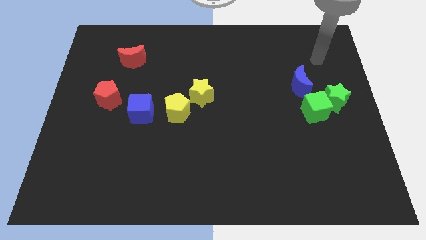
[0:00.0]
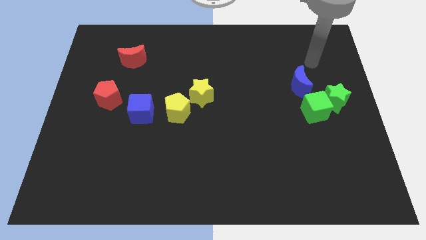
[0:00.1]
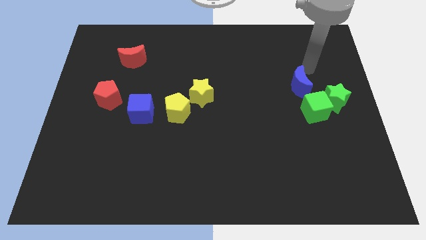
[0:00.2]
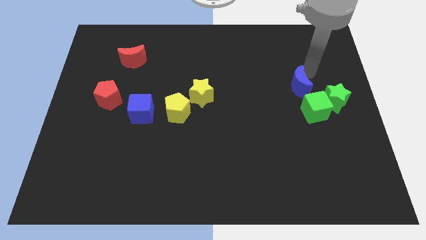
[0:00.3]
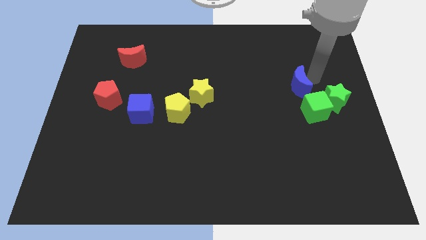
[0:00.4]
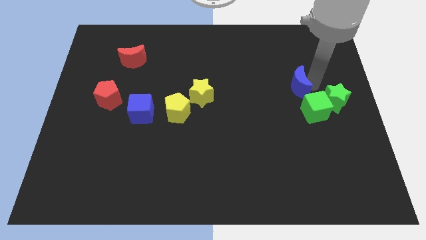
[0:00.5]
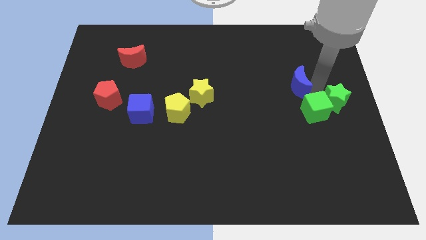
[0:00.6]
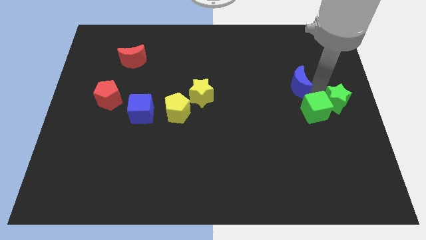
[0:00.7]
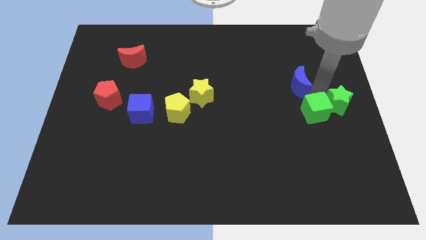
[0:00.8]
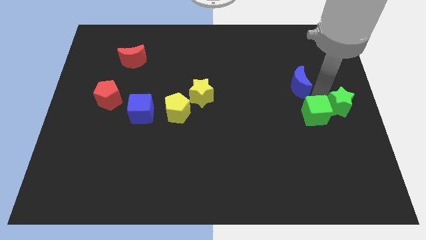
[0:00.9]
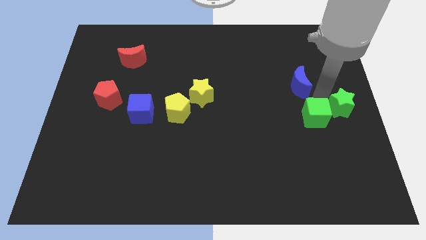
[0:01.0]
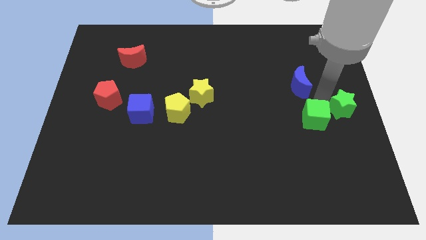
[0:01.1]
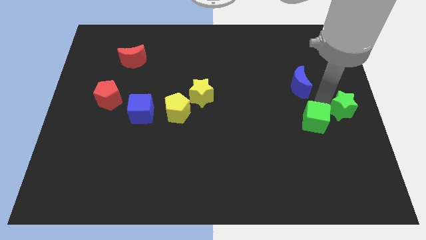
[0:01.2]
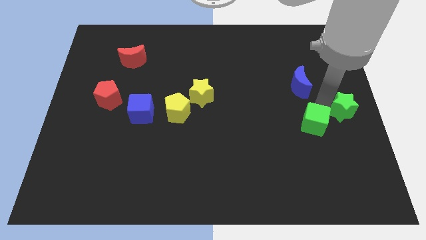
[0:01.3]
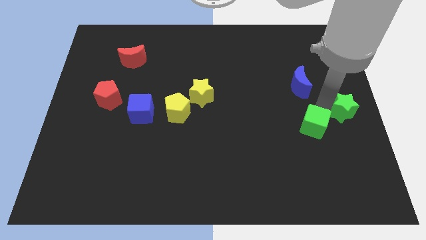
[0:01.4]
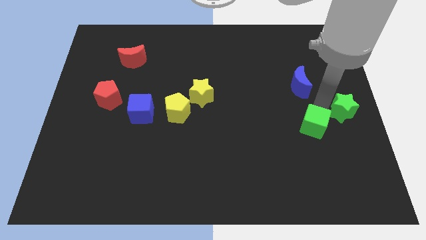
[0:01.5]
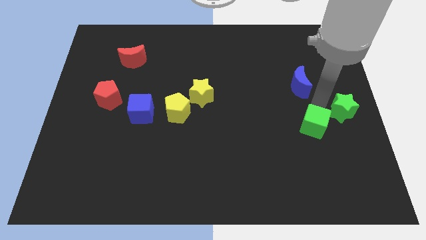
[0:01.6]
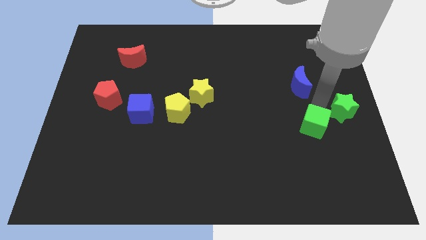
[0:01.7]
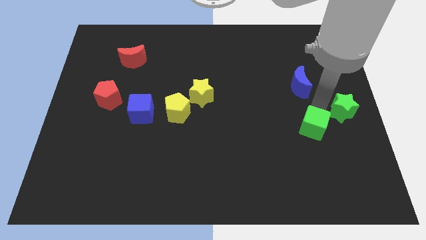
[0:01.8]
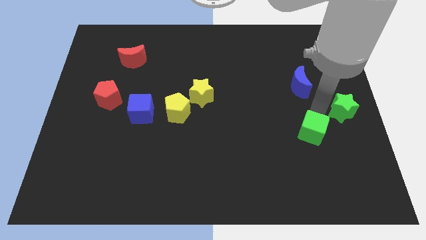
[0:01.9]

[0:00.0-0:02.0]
pull the green cube apart from the green star and blue moon

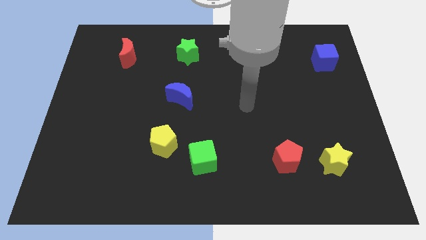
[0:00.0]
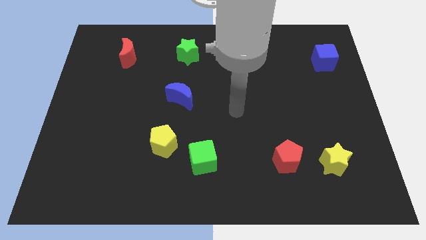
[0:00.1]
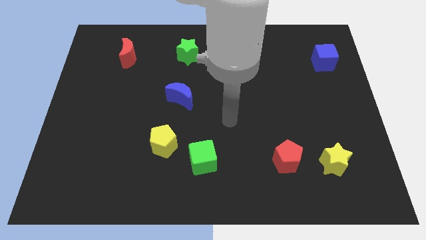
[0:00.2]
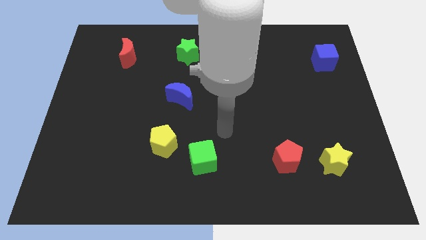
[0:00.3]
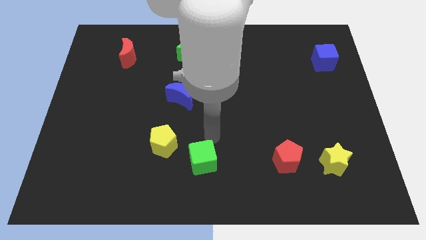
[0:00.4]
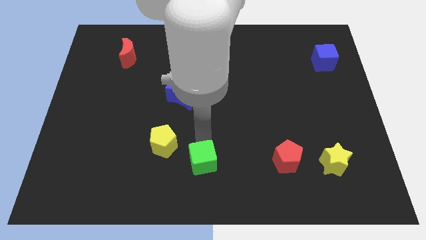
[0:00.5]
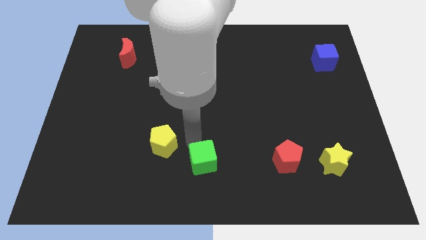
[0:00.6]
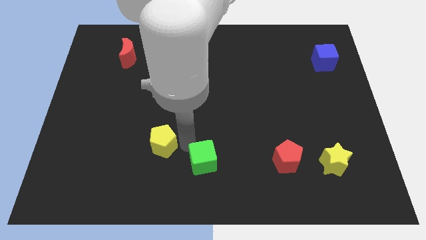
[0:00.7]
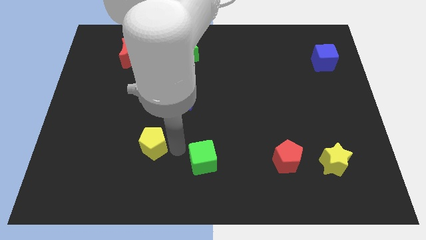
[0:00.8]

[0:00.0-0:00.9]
separate the green cube from the yellow pentagon

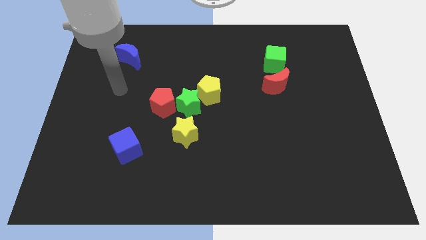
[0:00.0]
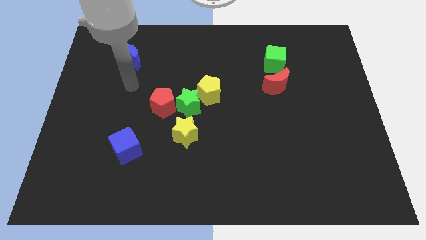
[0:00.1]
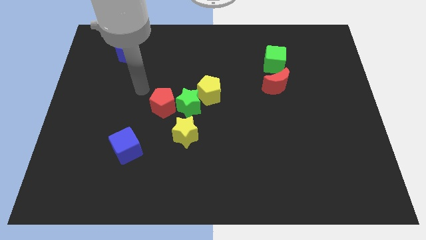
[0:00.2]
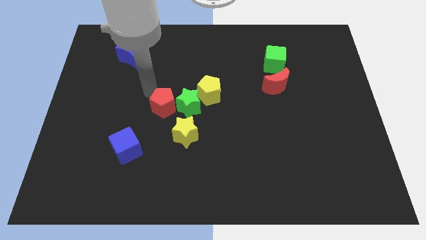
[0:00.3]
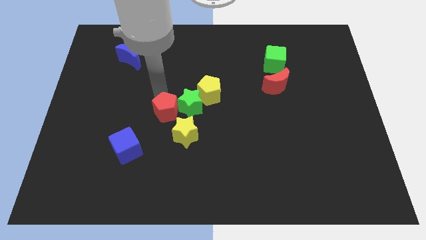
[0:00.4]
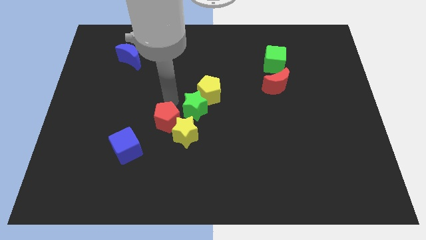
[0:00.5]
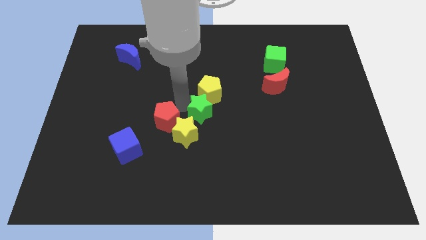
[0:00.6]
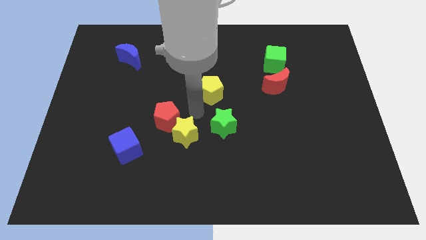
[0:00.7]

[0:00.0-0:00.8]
separate the yellow pentagon from the green star

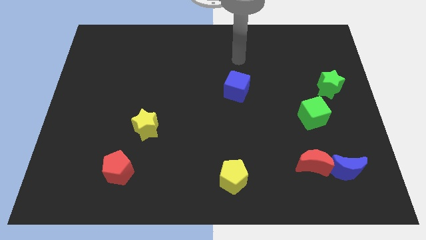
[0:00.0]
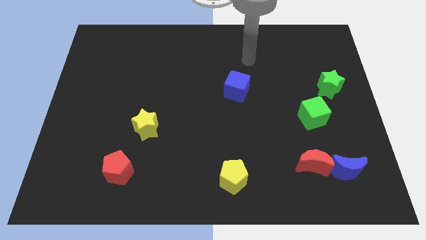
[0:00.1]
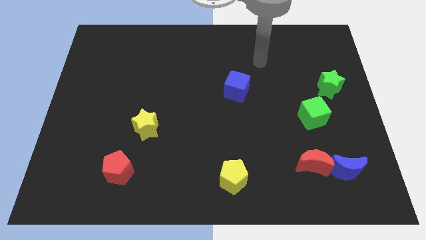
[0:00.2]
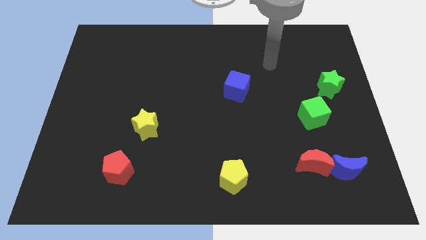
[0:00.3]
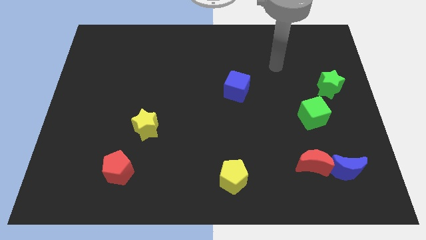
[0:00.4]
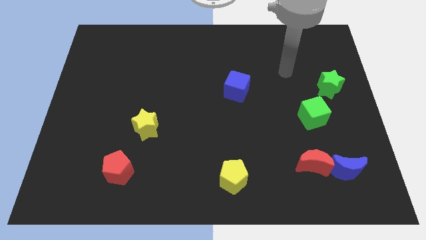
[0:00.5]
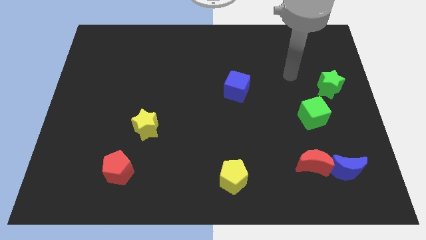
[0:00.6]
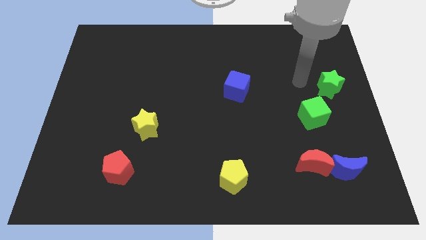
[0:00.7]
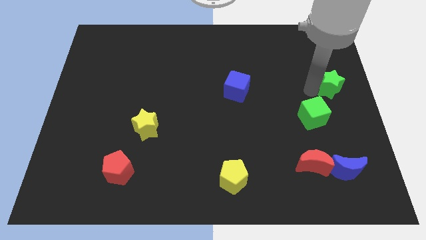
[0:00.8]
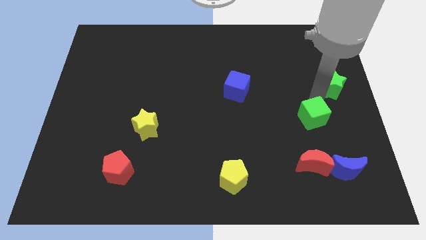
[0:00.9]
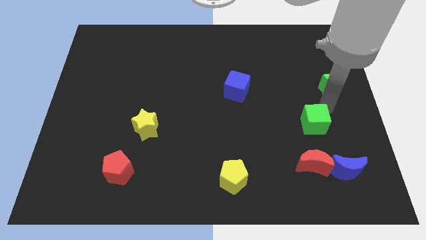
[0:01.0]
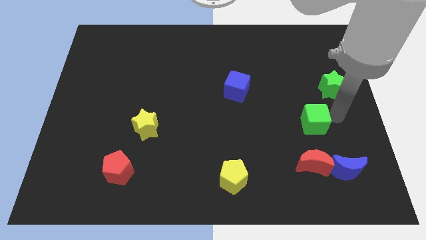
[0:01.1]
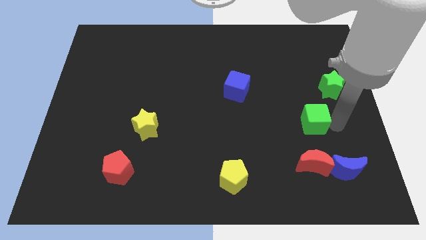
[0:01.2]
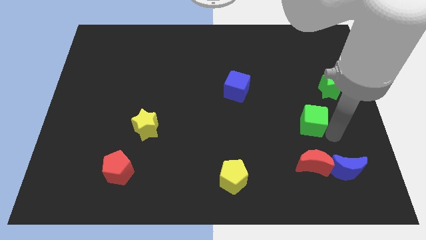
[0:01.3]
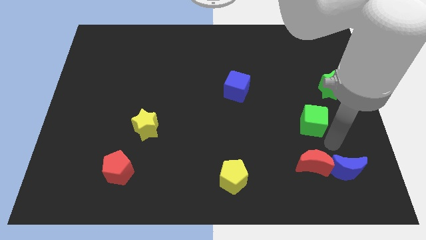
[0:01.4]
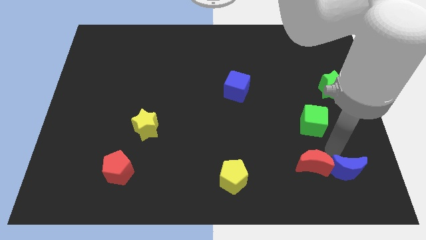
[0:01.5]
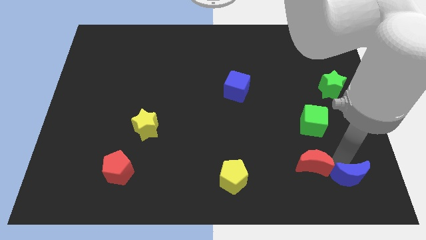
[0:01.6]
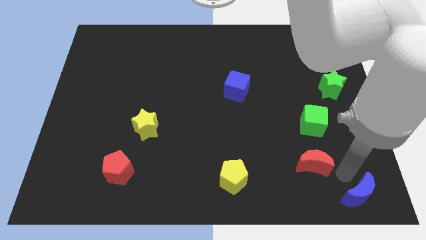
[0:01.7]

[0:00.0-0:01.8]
move the red moon away from the blue moon

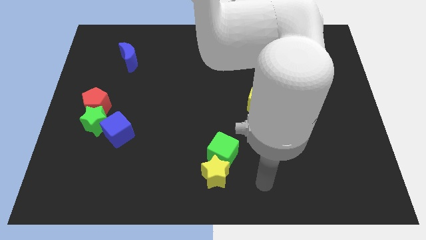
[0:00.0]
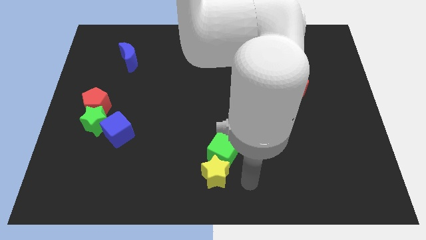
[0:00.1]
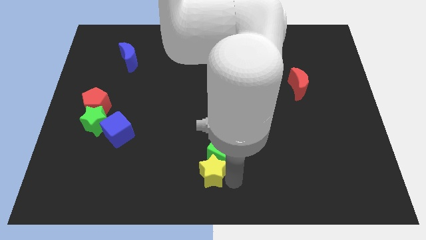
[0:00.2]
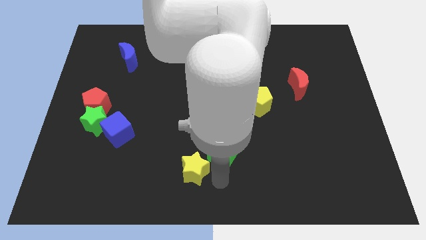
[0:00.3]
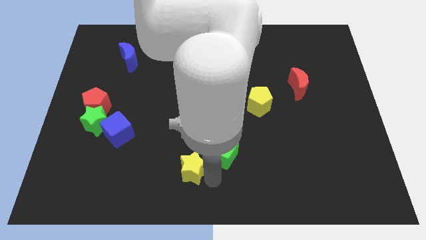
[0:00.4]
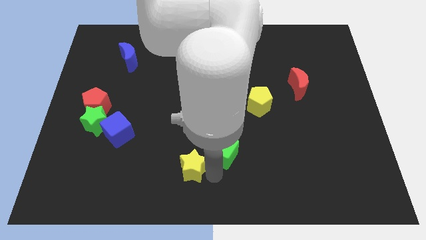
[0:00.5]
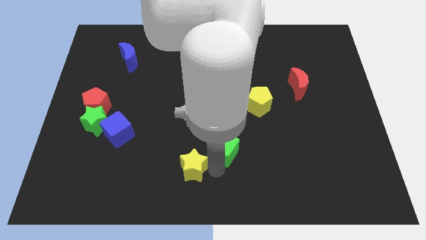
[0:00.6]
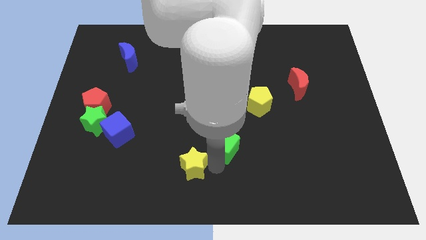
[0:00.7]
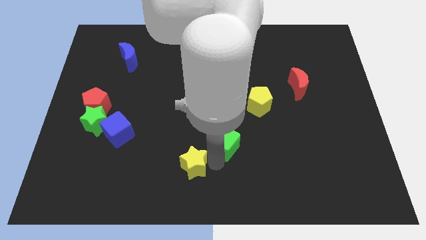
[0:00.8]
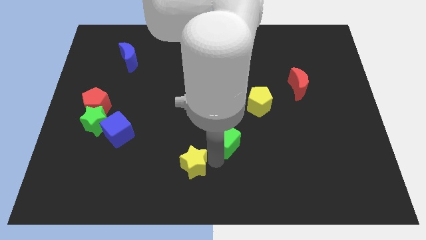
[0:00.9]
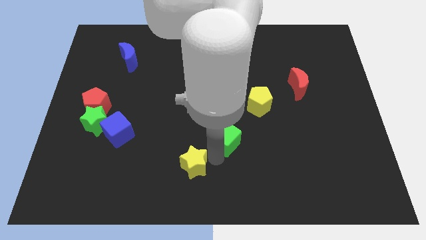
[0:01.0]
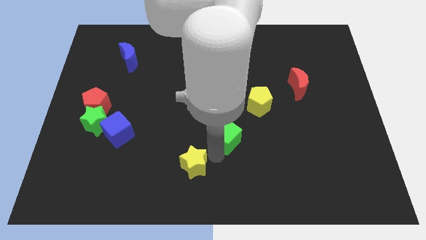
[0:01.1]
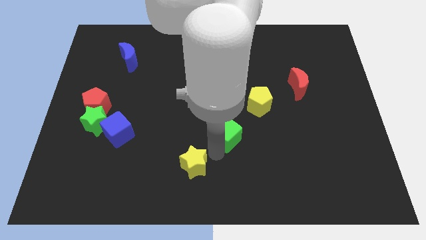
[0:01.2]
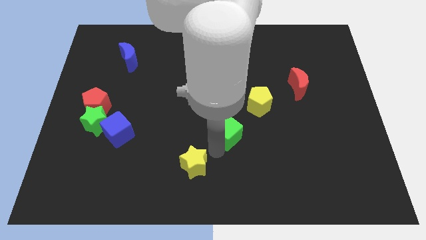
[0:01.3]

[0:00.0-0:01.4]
pull the green cube apart from the yellow star

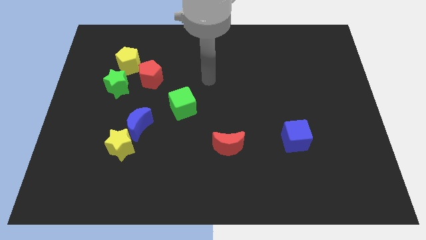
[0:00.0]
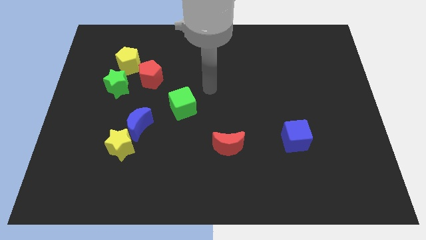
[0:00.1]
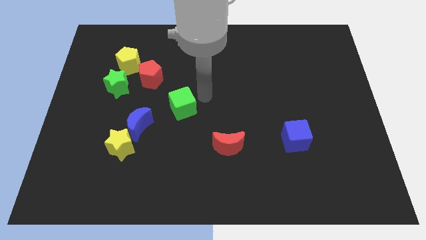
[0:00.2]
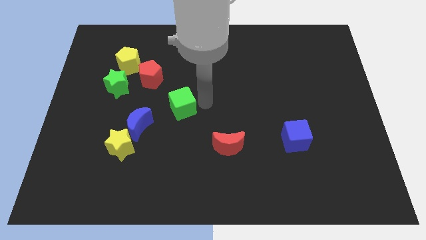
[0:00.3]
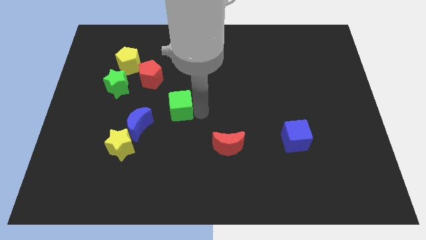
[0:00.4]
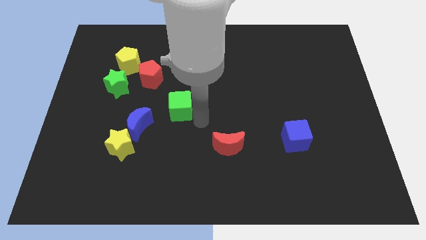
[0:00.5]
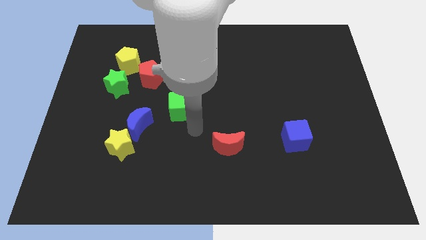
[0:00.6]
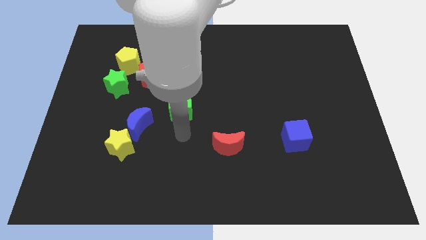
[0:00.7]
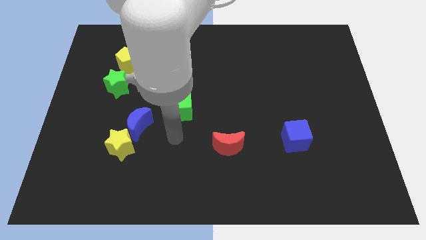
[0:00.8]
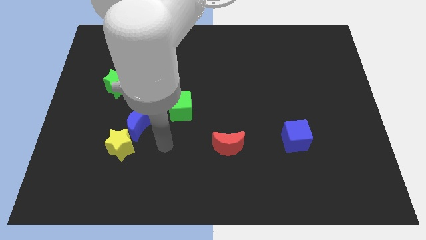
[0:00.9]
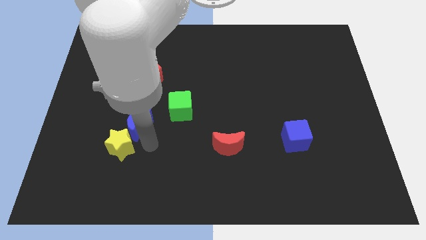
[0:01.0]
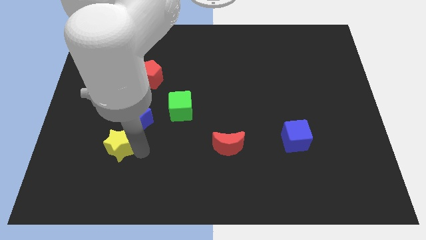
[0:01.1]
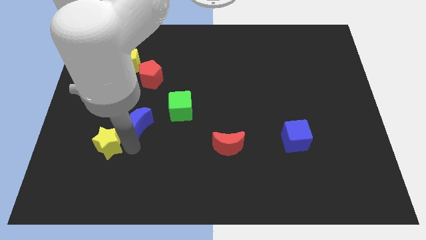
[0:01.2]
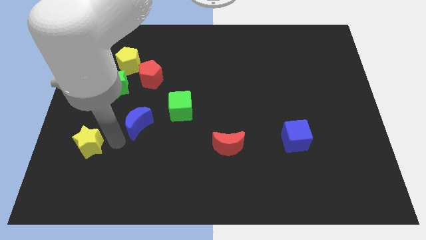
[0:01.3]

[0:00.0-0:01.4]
pull the blue moon apart from the yellow star

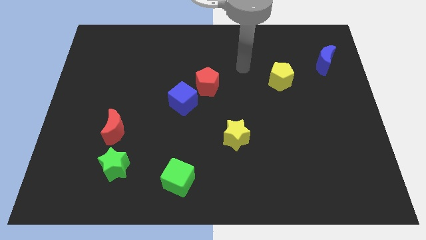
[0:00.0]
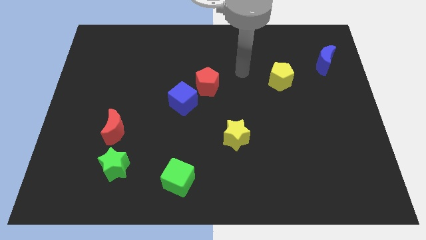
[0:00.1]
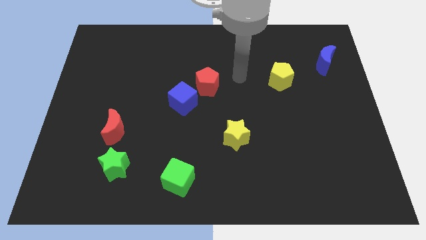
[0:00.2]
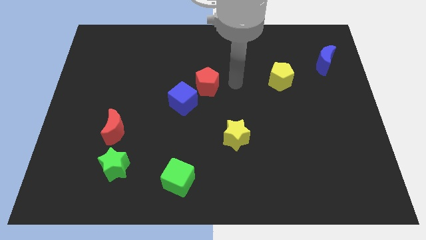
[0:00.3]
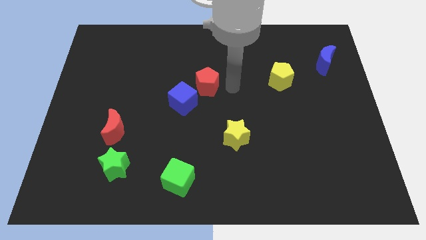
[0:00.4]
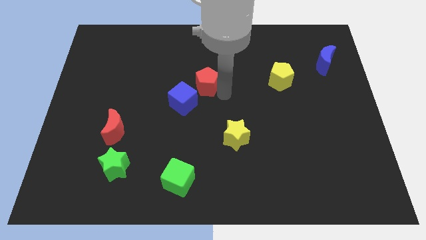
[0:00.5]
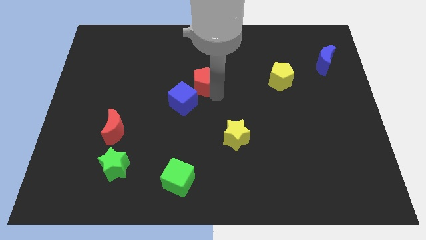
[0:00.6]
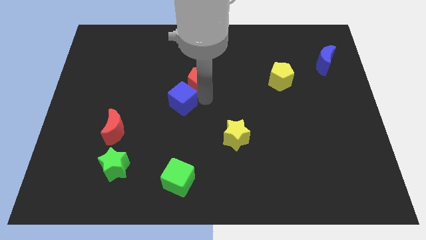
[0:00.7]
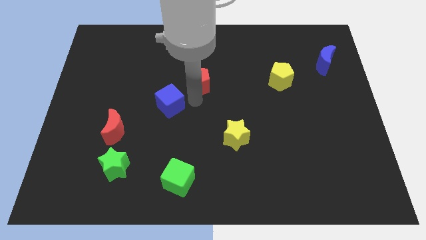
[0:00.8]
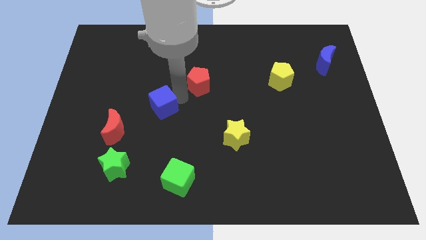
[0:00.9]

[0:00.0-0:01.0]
pull the red pentagon apart from the blue cube
